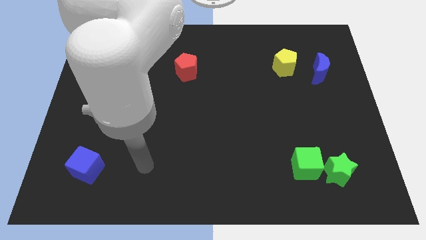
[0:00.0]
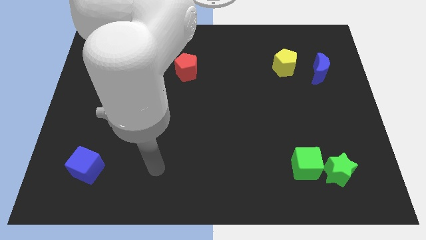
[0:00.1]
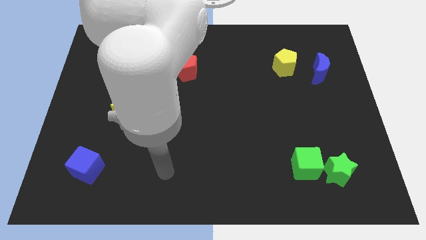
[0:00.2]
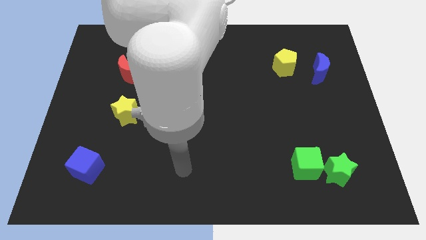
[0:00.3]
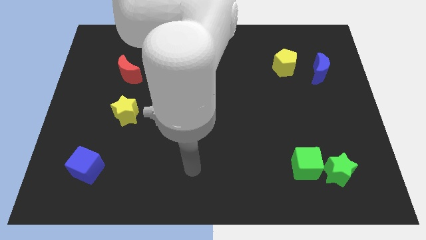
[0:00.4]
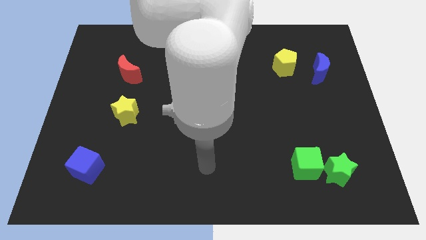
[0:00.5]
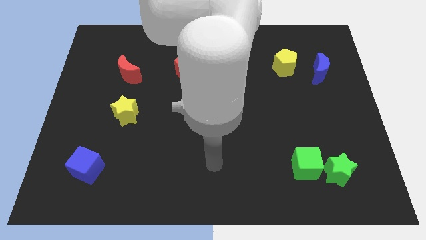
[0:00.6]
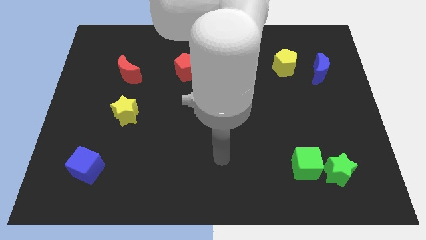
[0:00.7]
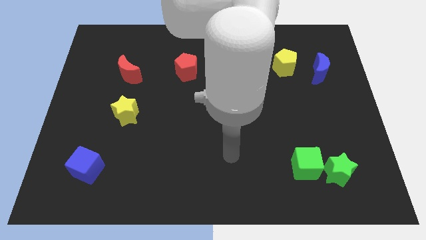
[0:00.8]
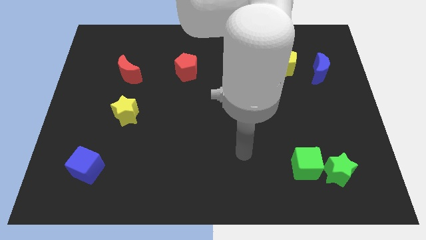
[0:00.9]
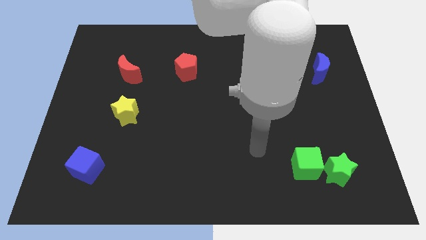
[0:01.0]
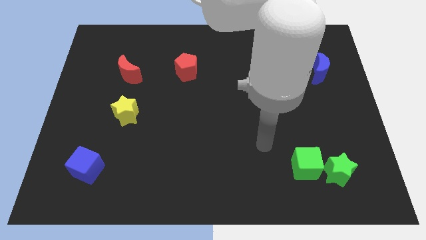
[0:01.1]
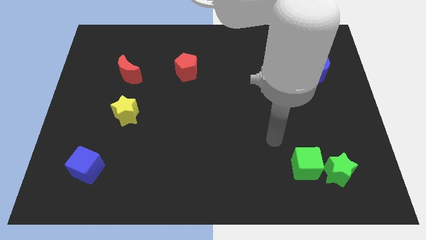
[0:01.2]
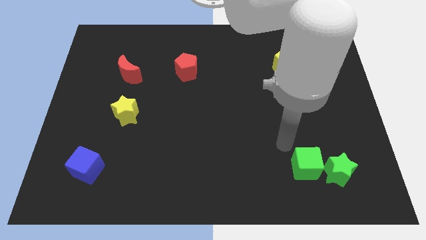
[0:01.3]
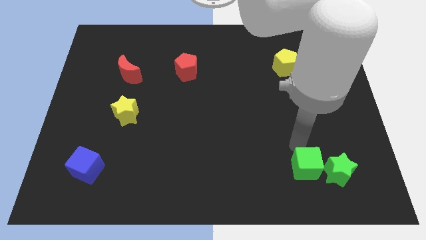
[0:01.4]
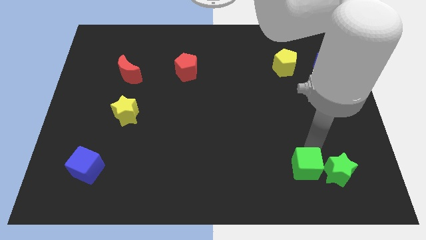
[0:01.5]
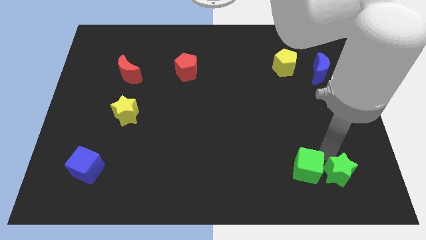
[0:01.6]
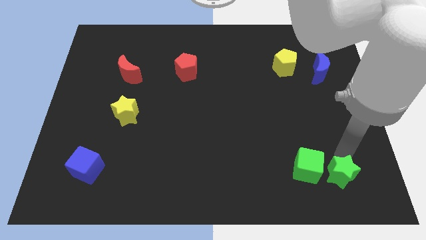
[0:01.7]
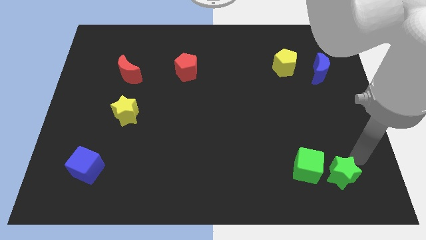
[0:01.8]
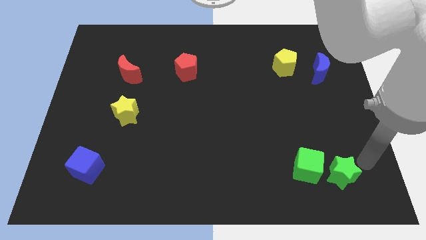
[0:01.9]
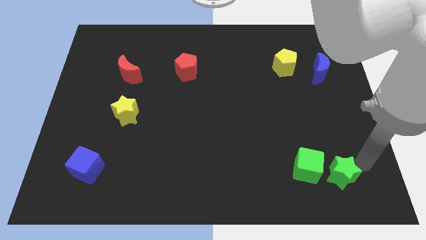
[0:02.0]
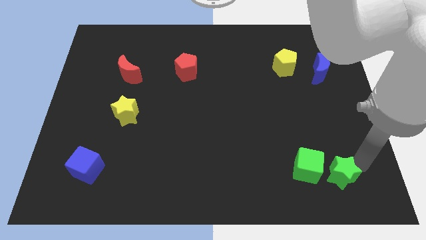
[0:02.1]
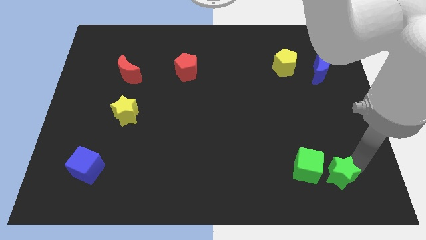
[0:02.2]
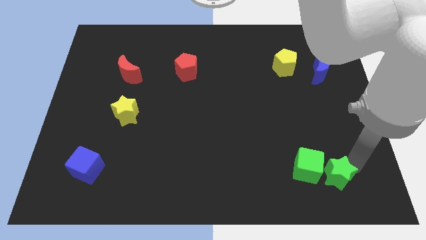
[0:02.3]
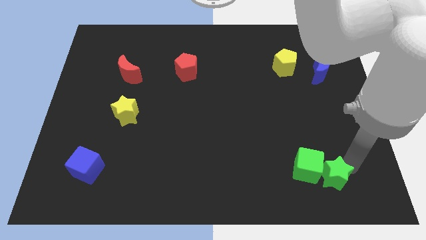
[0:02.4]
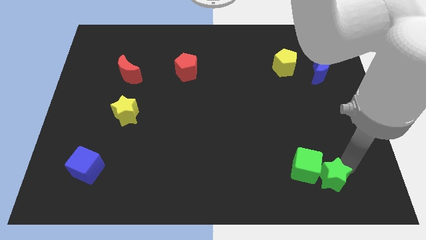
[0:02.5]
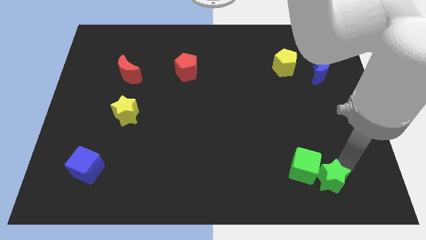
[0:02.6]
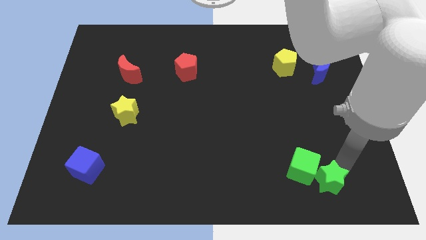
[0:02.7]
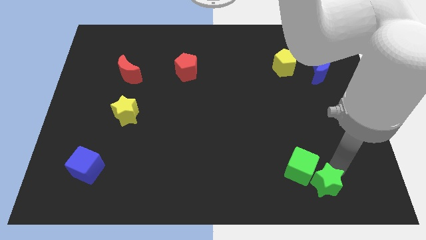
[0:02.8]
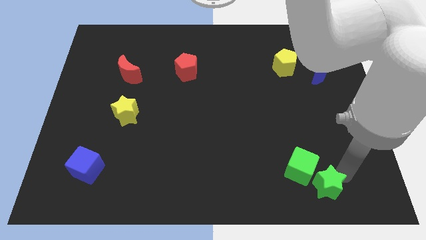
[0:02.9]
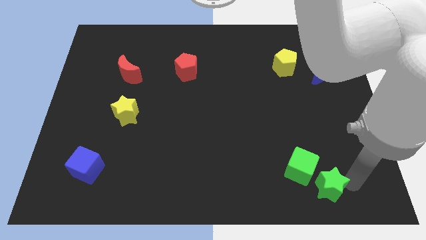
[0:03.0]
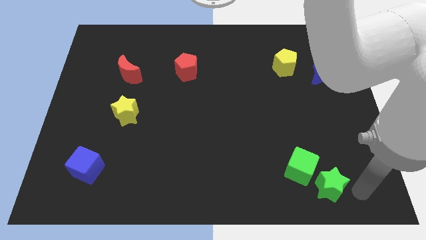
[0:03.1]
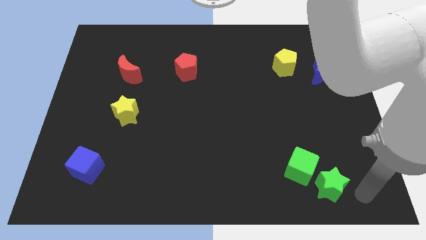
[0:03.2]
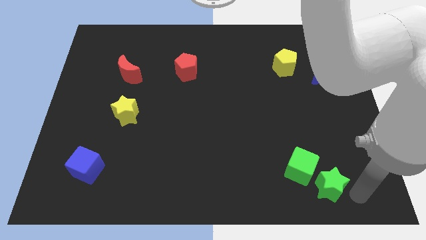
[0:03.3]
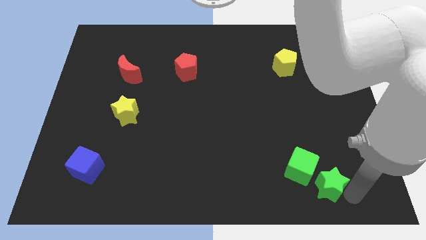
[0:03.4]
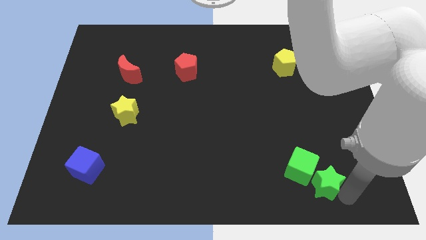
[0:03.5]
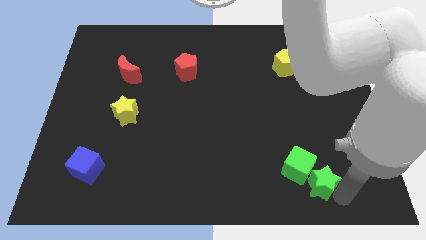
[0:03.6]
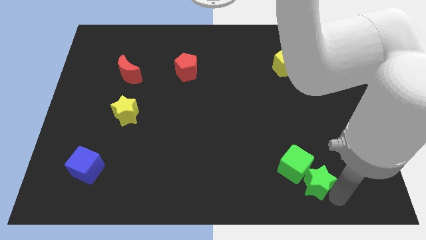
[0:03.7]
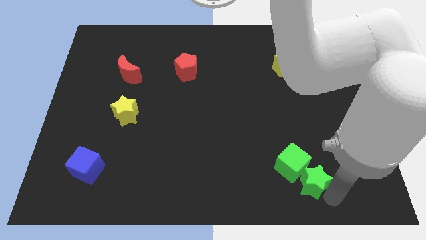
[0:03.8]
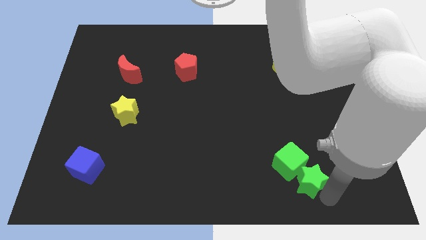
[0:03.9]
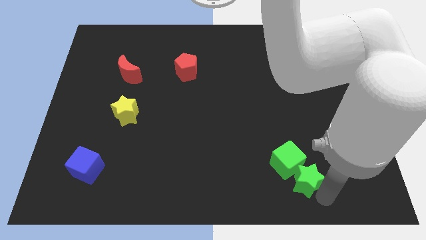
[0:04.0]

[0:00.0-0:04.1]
push the green star a bit left

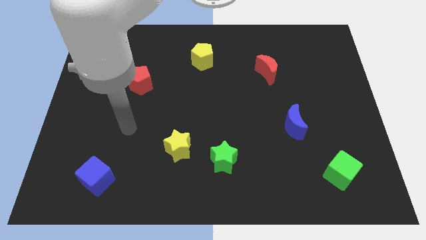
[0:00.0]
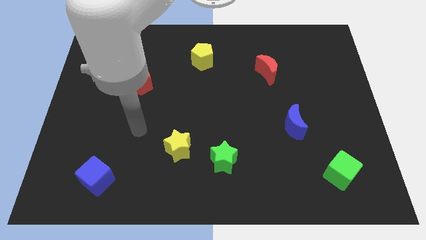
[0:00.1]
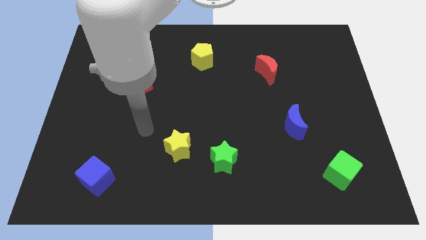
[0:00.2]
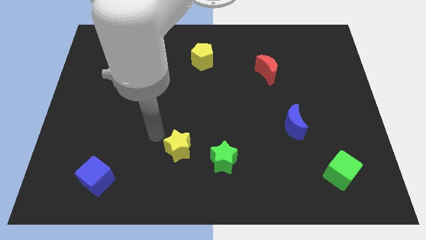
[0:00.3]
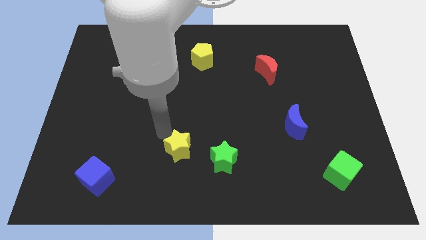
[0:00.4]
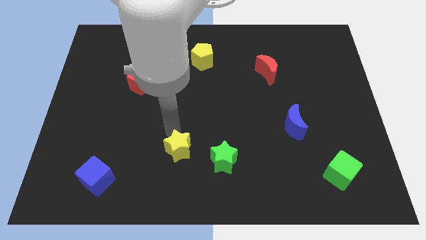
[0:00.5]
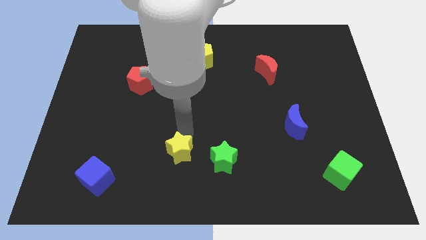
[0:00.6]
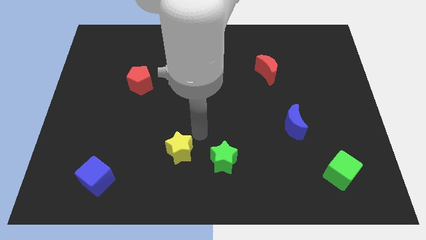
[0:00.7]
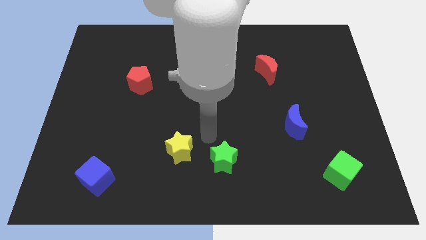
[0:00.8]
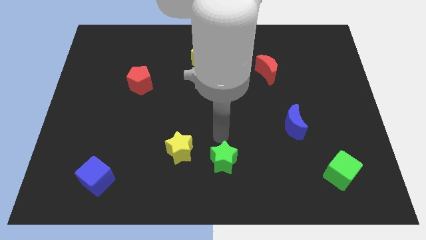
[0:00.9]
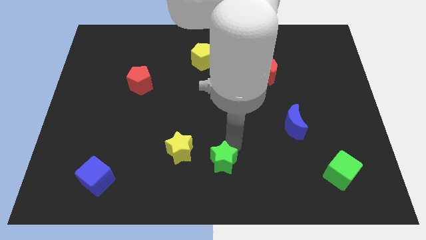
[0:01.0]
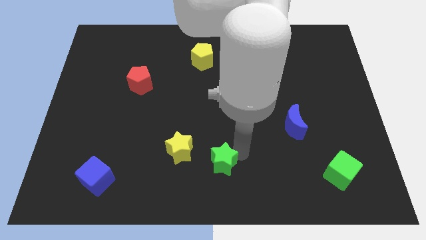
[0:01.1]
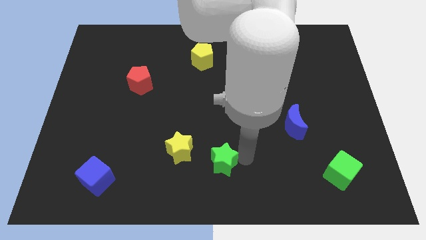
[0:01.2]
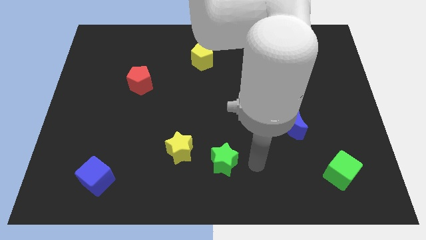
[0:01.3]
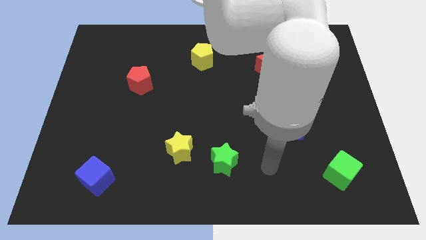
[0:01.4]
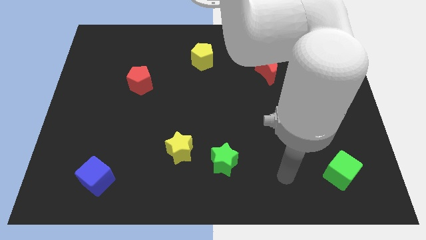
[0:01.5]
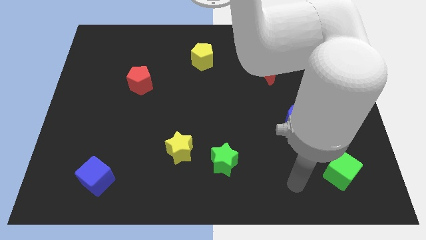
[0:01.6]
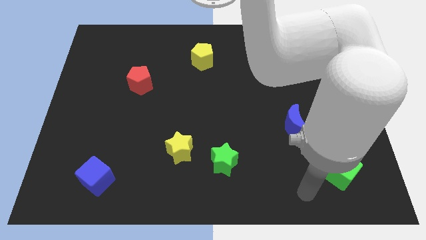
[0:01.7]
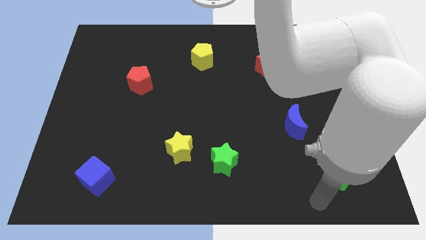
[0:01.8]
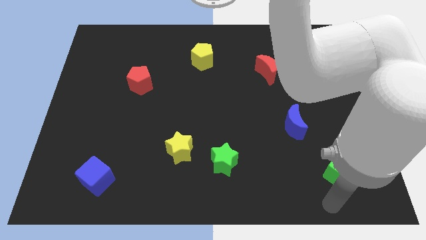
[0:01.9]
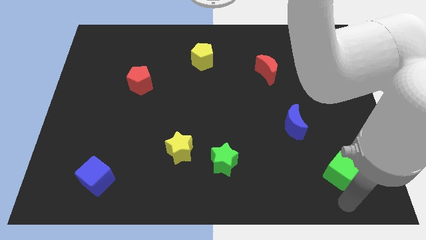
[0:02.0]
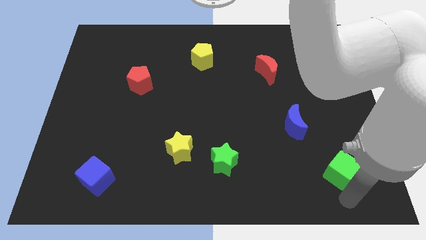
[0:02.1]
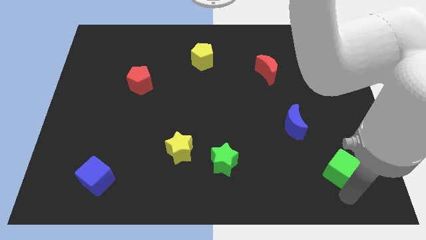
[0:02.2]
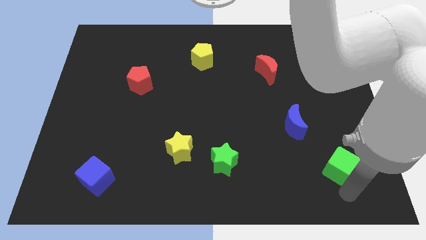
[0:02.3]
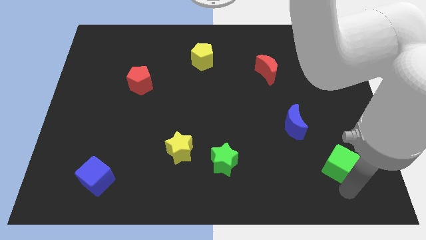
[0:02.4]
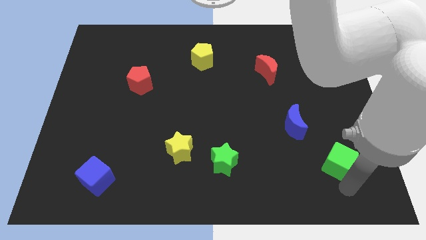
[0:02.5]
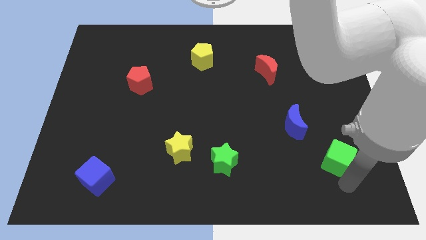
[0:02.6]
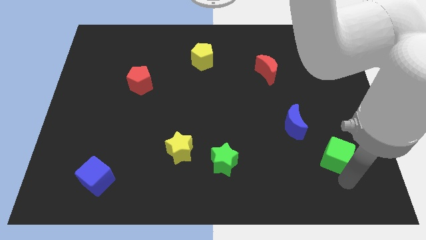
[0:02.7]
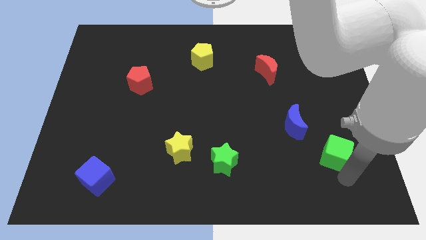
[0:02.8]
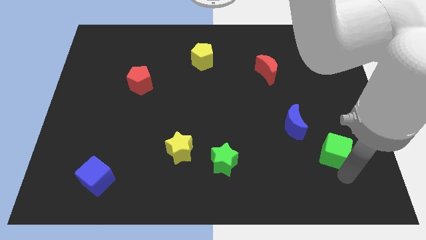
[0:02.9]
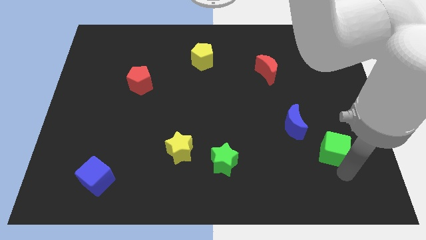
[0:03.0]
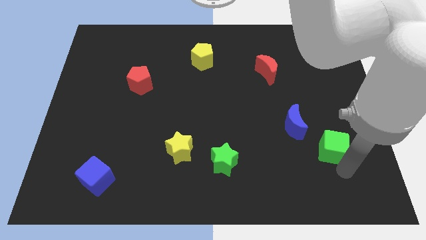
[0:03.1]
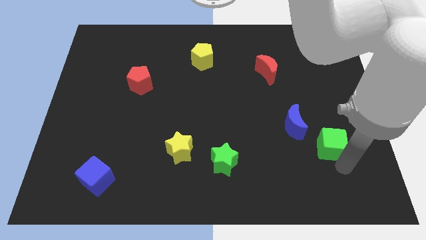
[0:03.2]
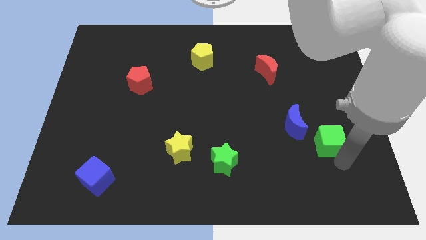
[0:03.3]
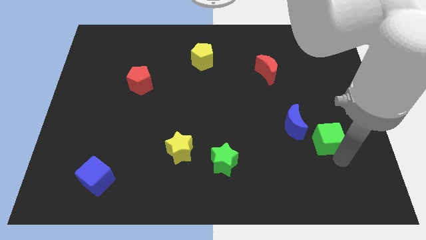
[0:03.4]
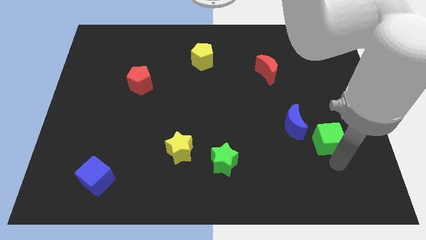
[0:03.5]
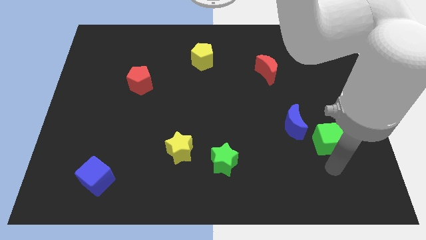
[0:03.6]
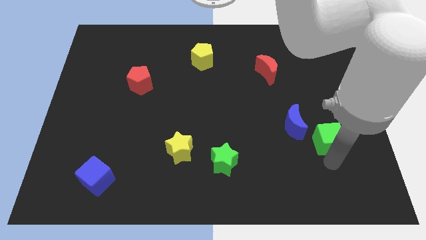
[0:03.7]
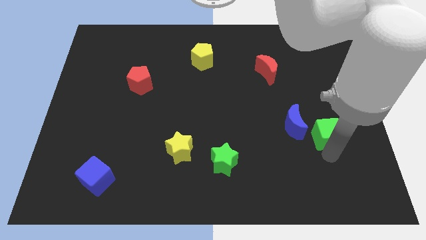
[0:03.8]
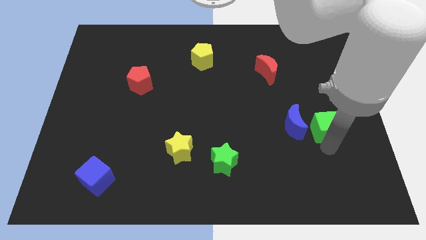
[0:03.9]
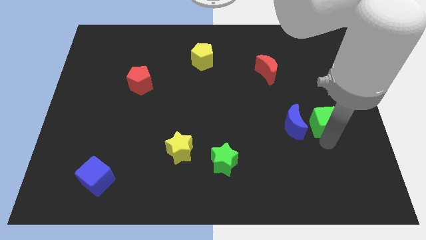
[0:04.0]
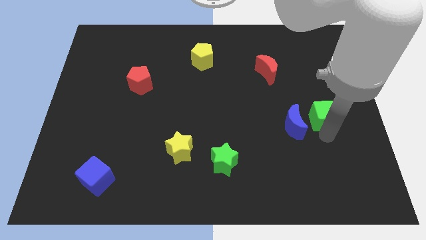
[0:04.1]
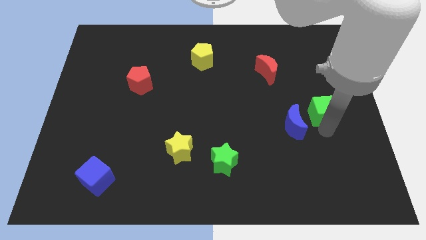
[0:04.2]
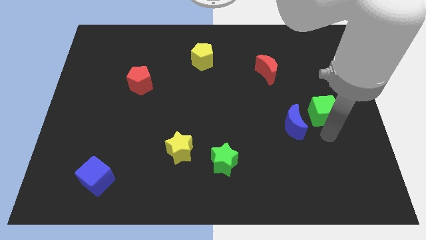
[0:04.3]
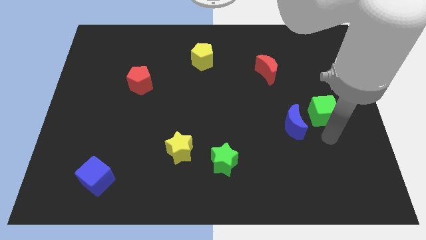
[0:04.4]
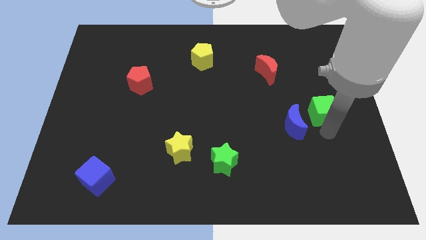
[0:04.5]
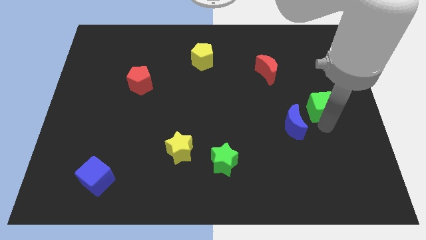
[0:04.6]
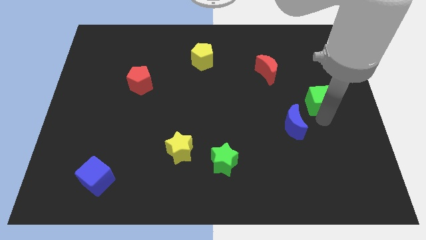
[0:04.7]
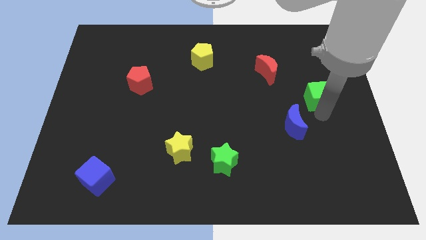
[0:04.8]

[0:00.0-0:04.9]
move the green cube up
